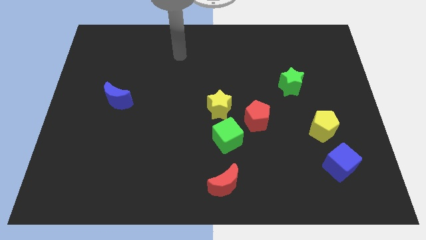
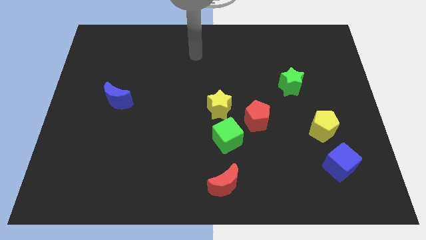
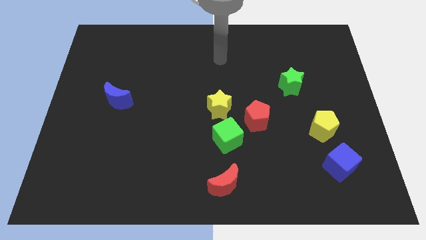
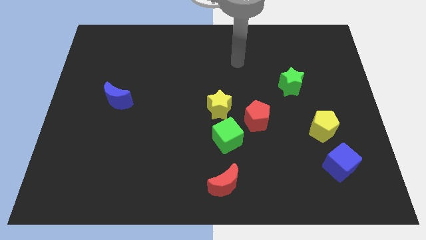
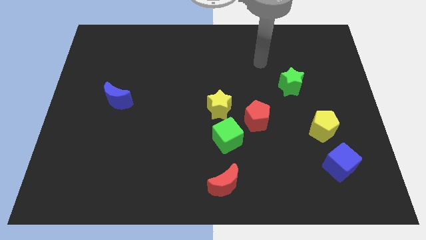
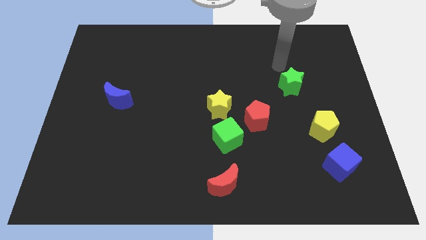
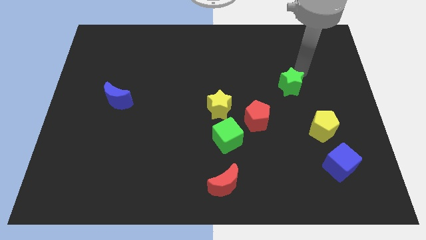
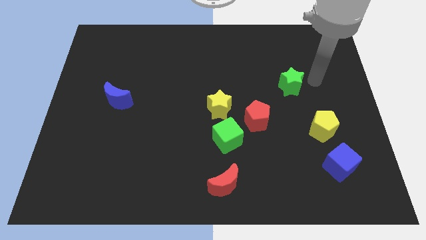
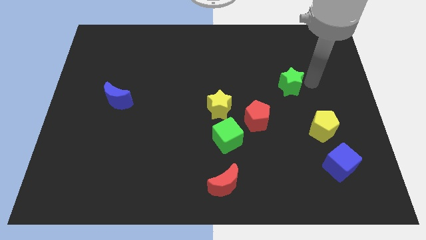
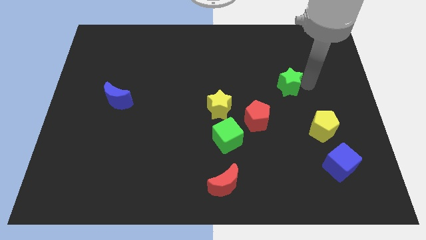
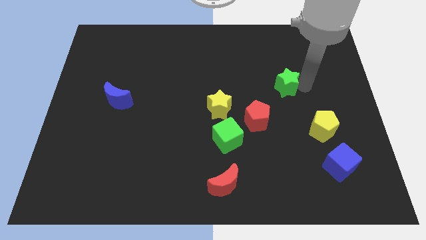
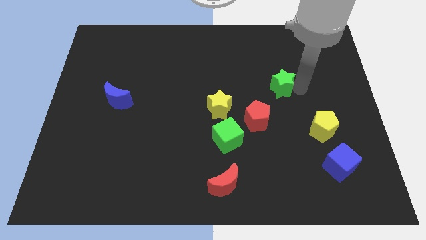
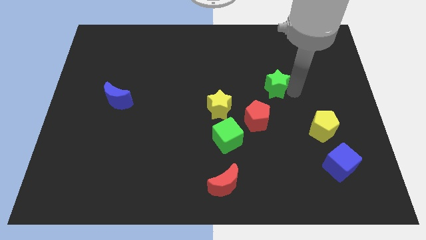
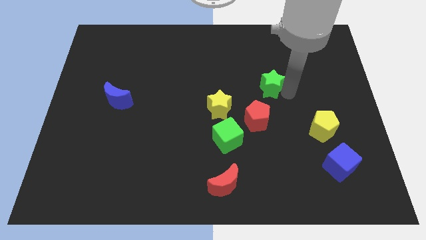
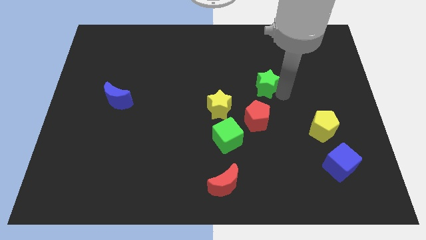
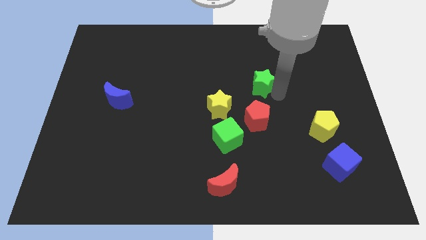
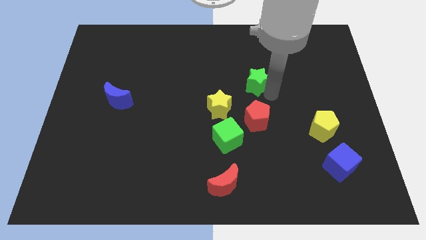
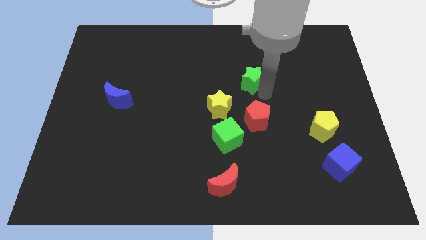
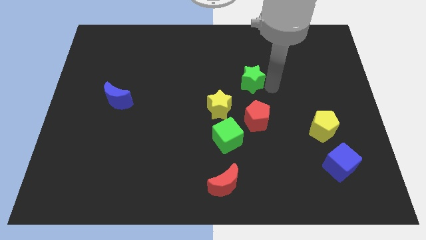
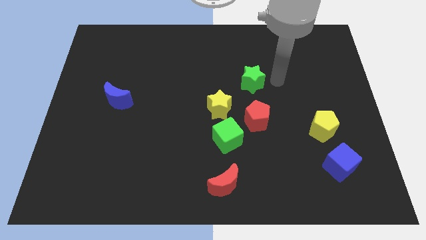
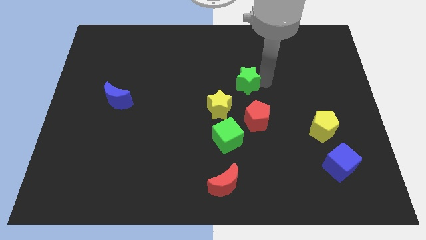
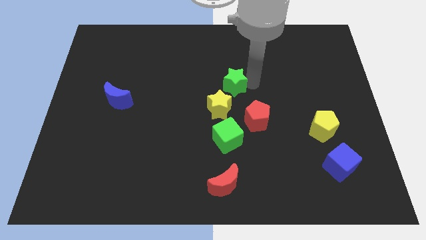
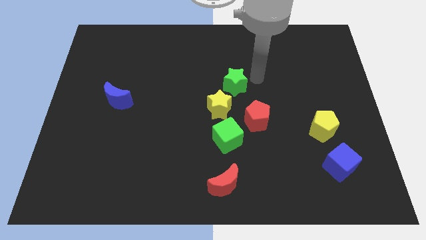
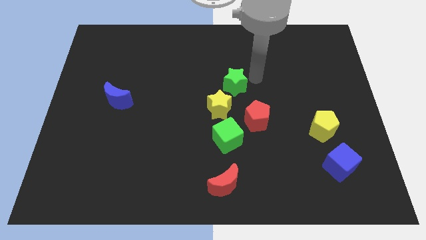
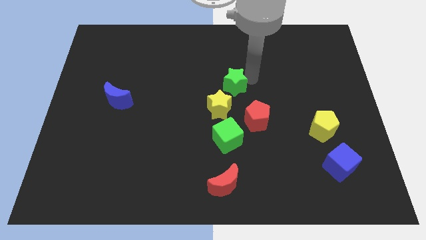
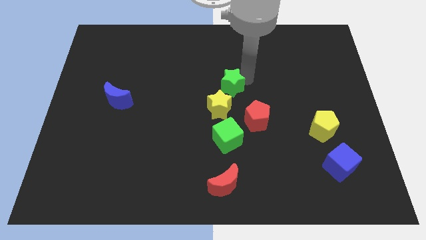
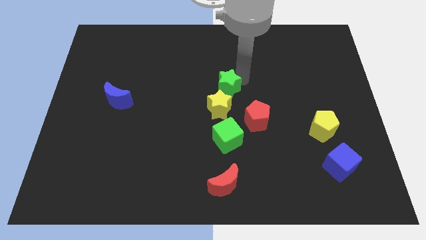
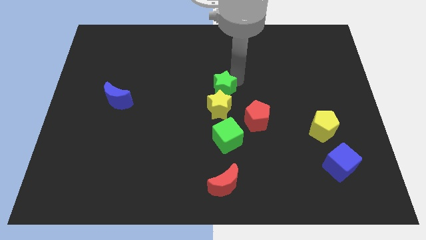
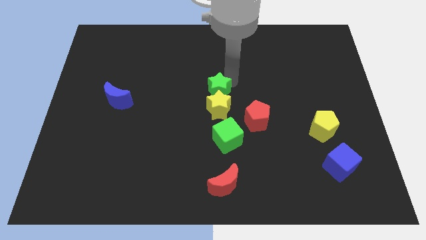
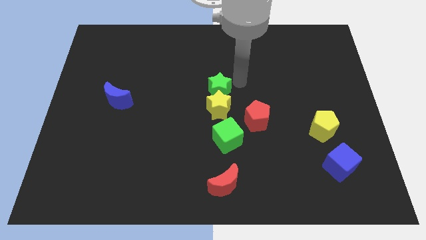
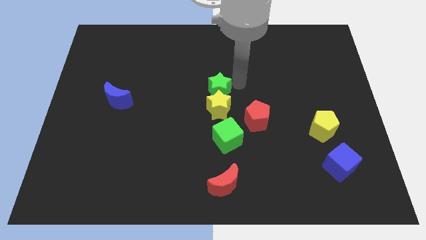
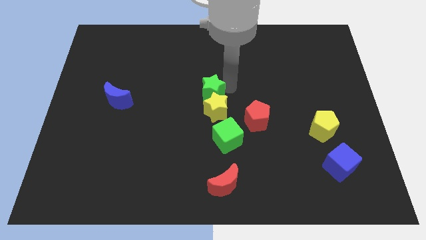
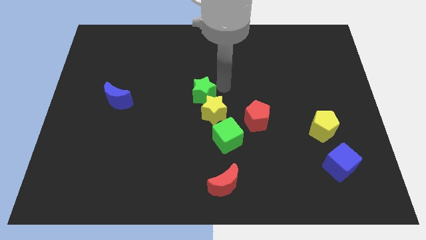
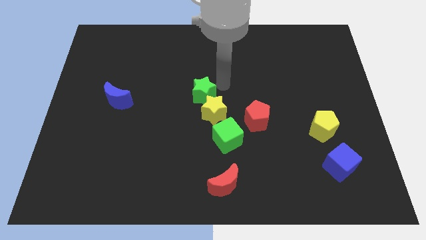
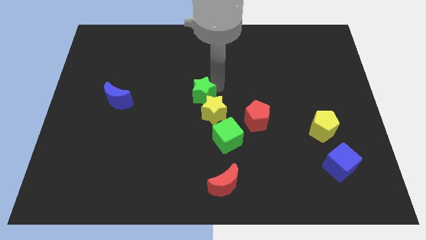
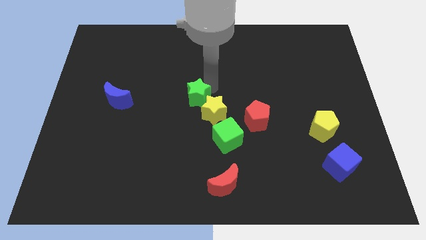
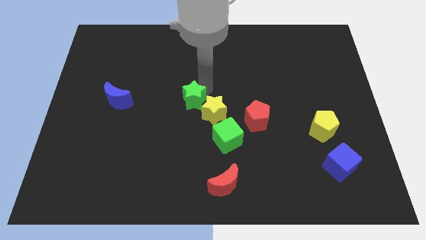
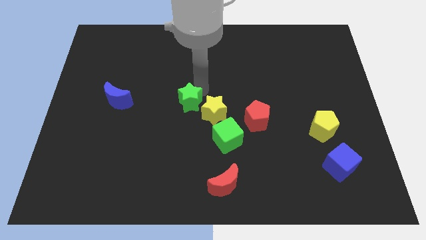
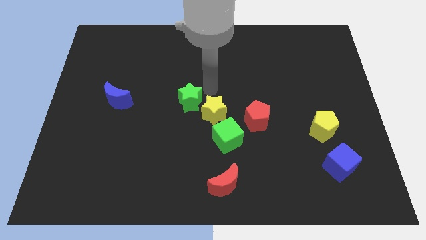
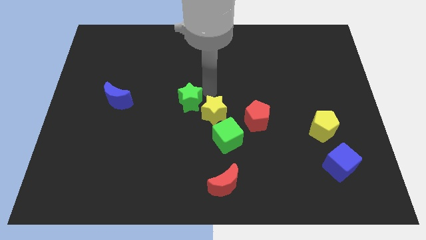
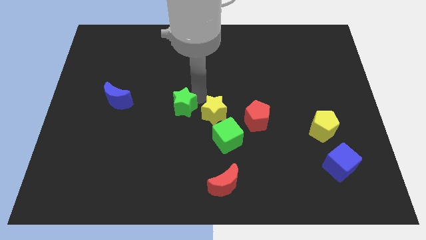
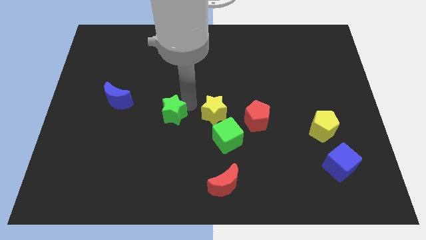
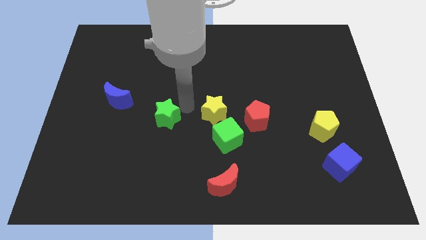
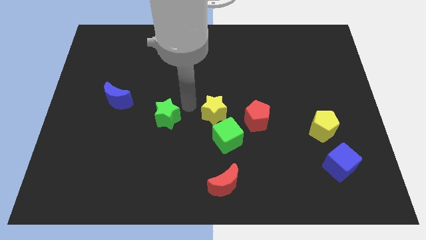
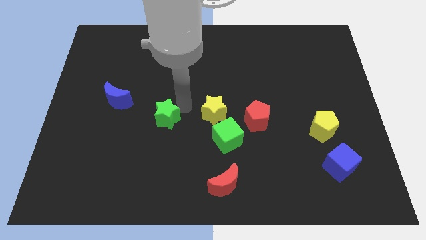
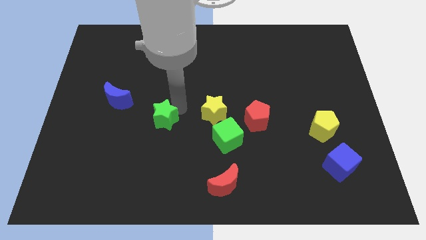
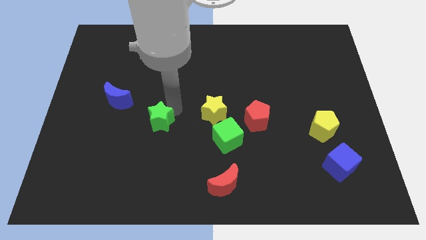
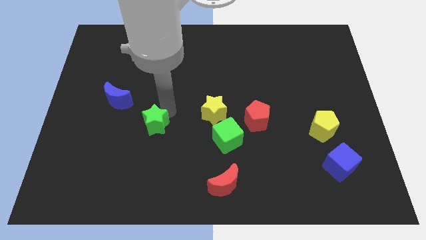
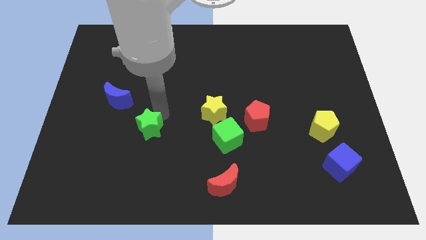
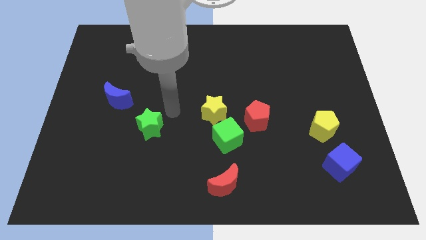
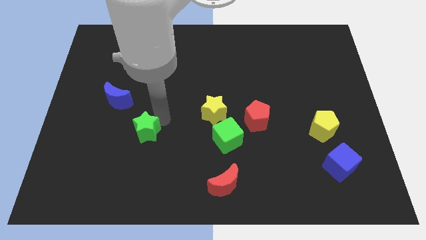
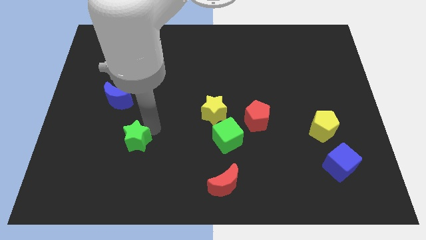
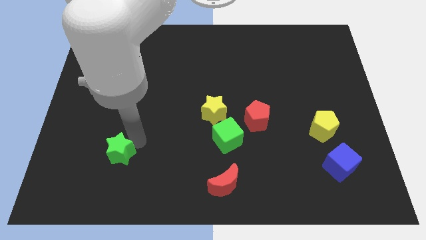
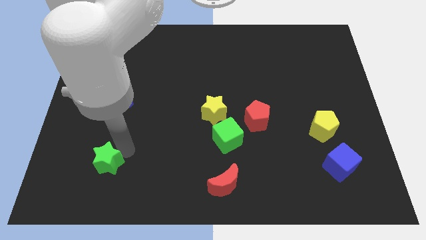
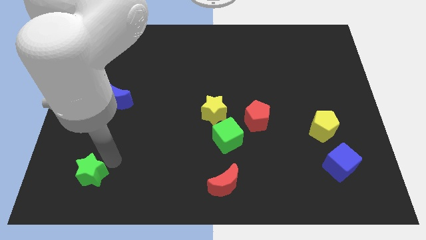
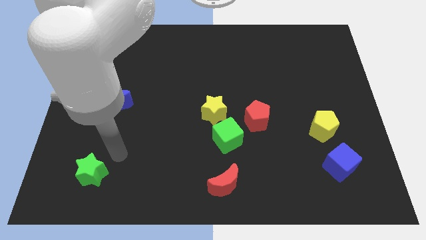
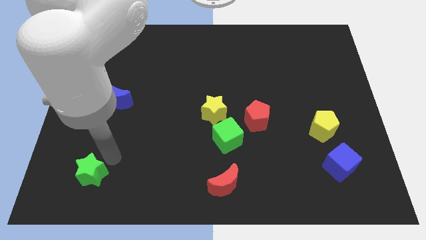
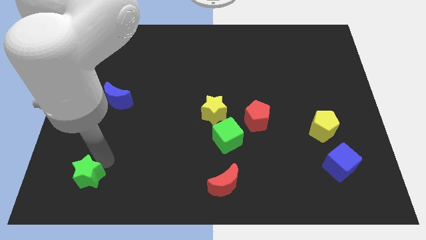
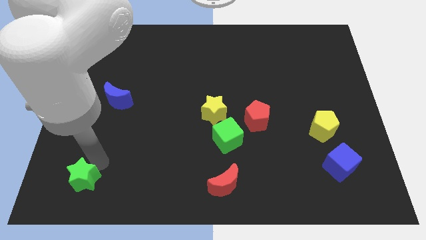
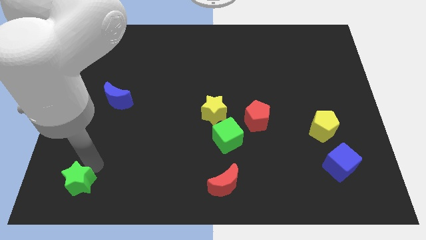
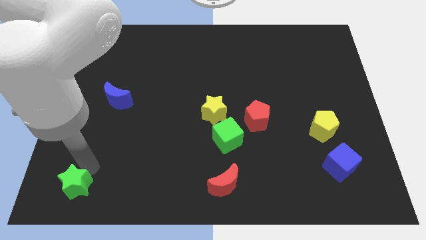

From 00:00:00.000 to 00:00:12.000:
push the green star to the bottom left

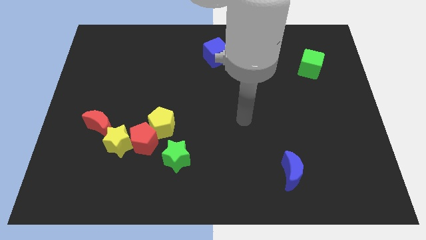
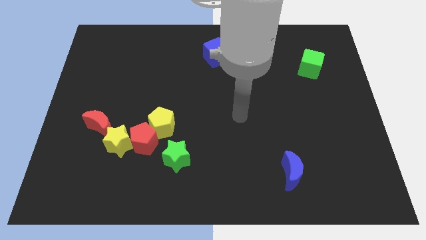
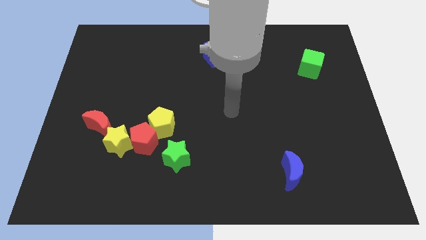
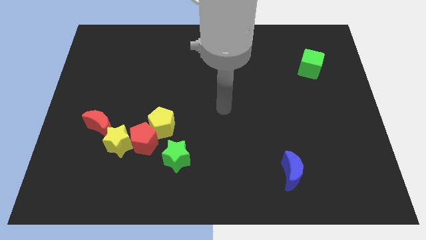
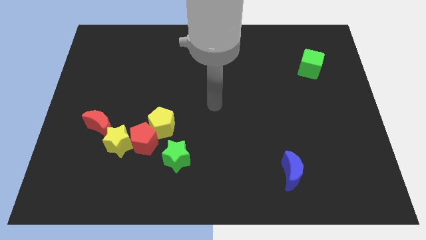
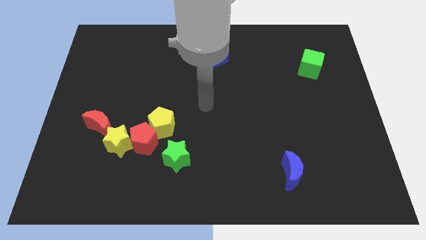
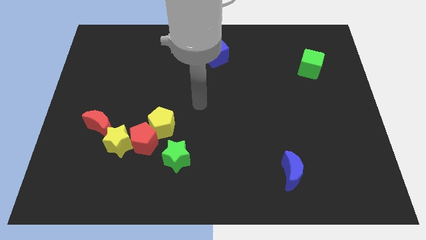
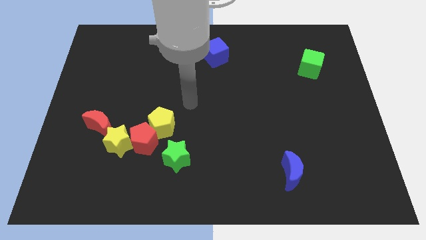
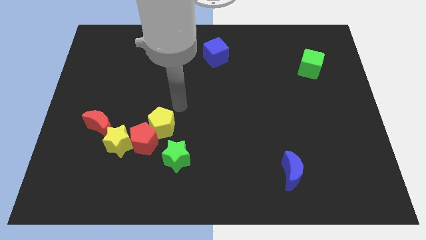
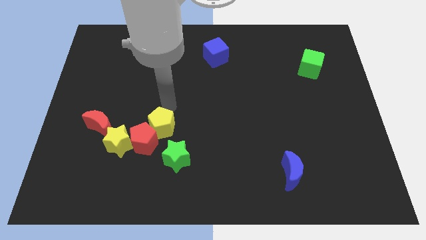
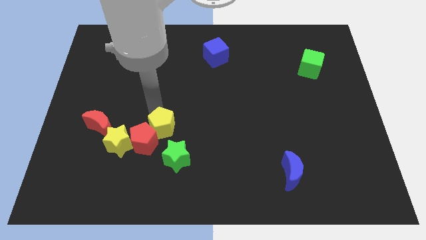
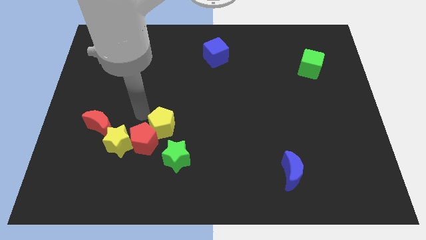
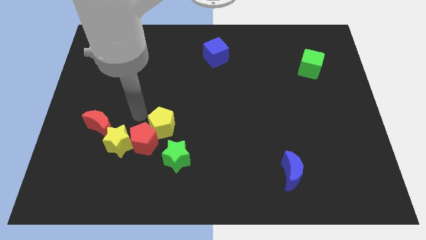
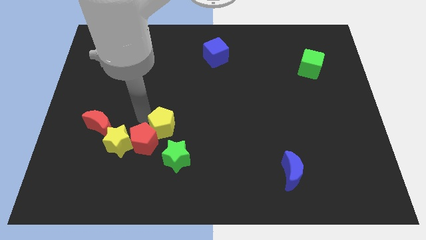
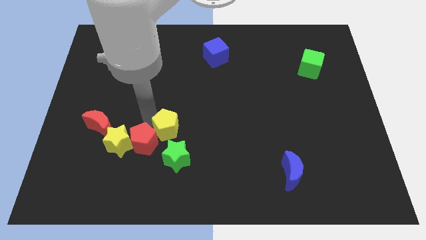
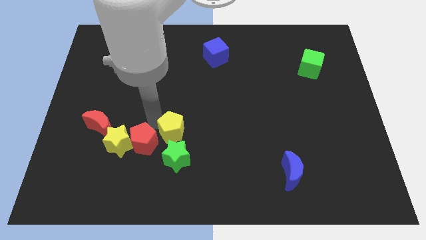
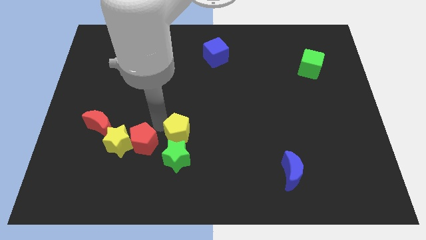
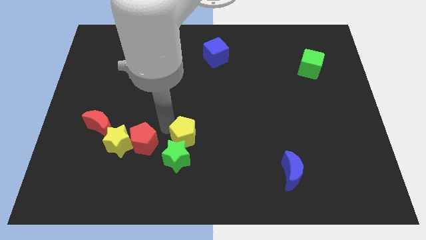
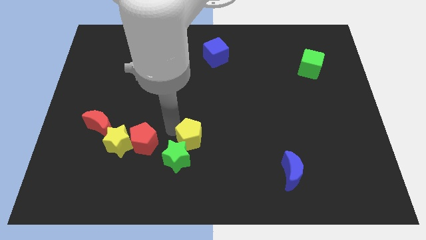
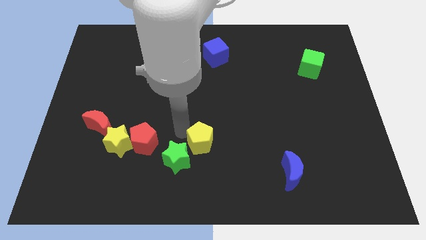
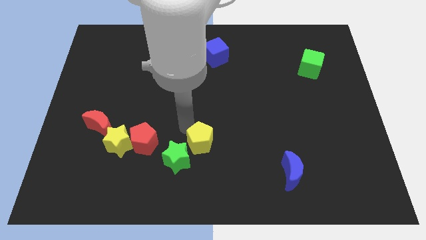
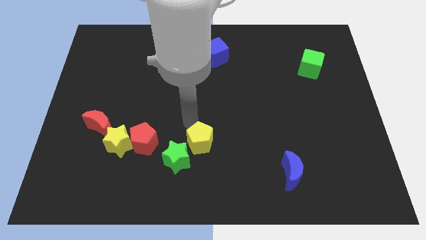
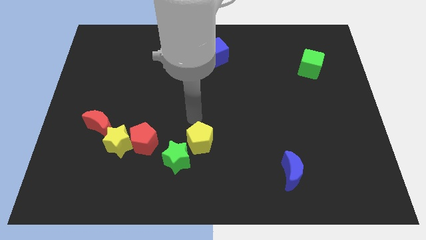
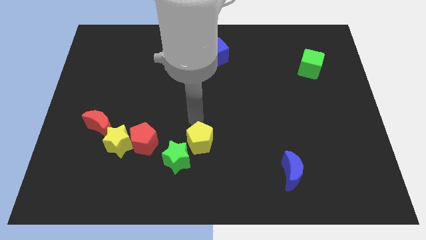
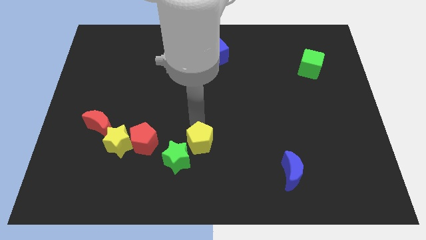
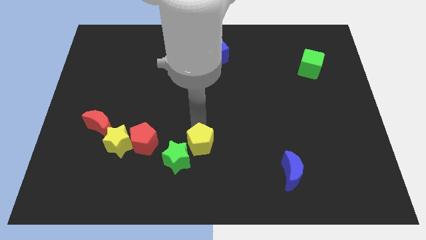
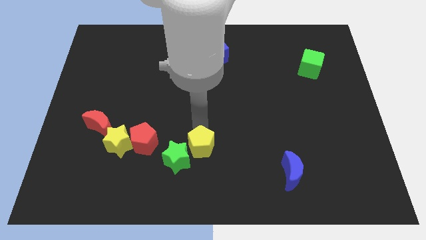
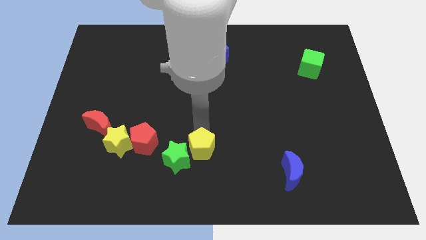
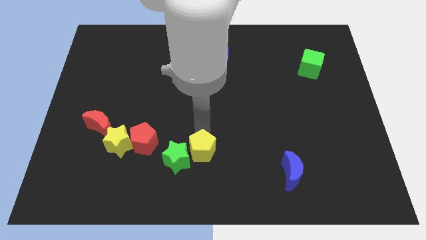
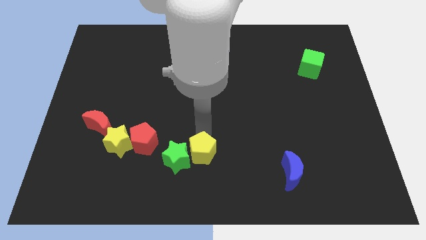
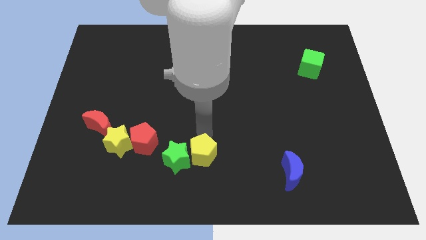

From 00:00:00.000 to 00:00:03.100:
push the yellow pentagon to the bottom
